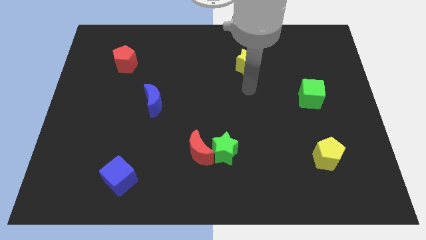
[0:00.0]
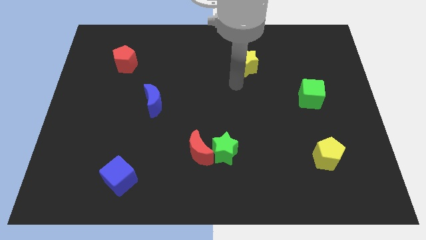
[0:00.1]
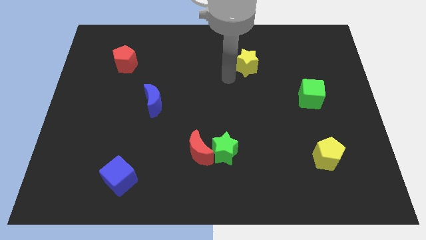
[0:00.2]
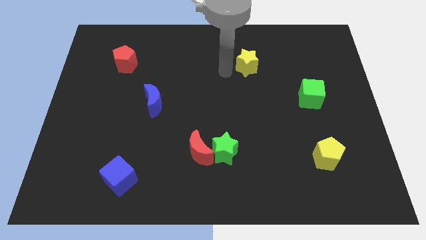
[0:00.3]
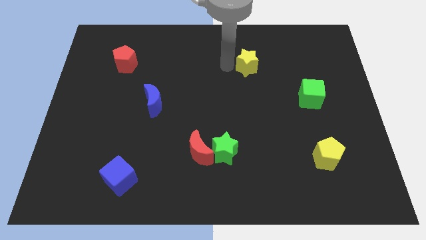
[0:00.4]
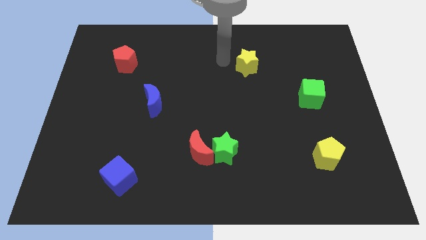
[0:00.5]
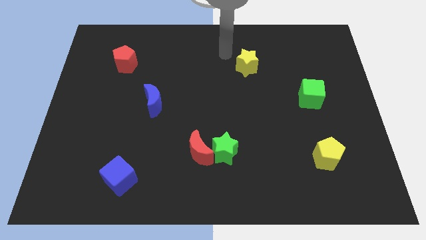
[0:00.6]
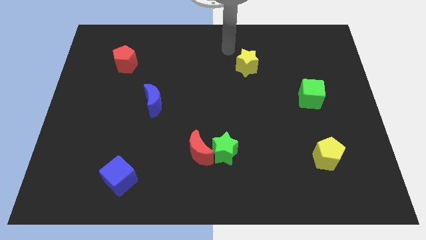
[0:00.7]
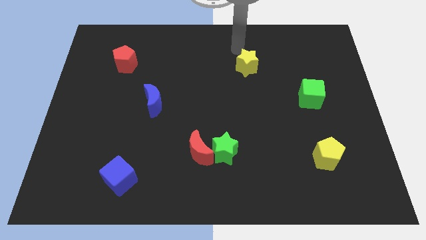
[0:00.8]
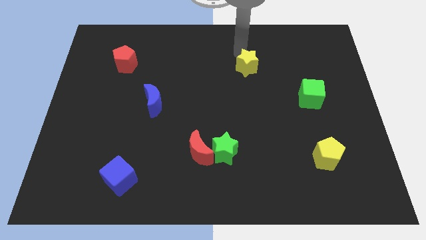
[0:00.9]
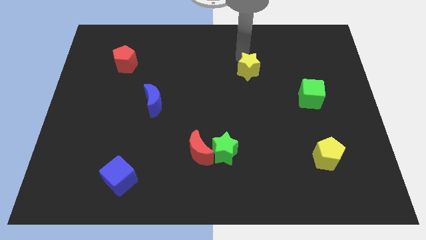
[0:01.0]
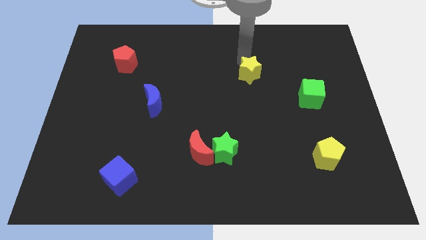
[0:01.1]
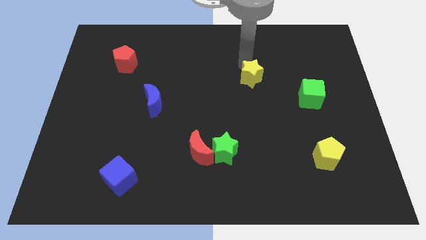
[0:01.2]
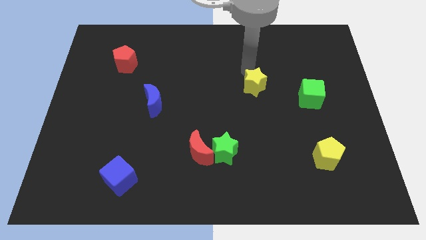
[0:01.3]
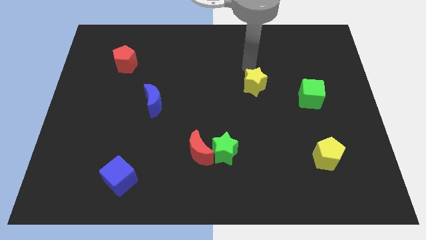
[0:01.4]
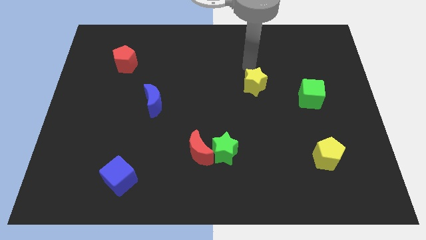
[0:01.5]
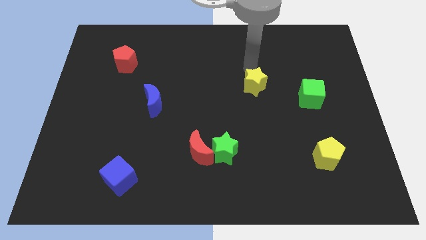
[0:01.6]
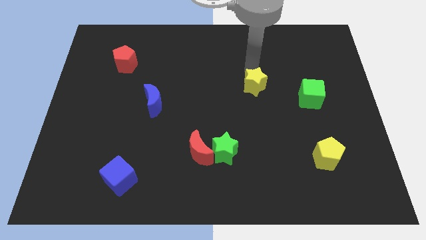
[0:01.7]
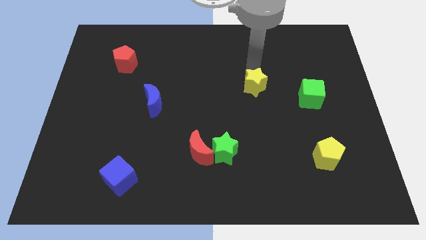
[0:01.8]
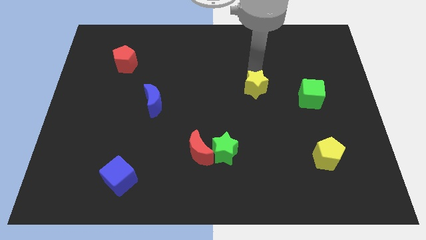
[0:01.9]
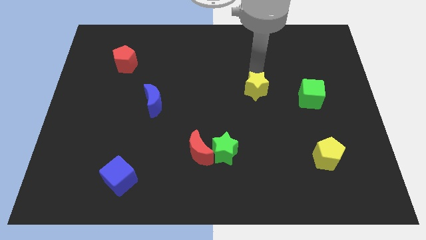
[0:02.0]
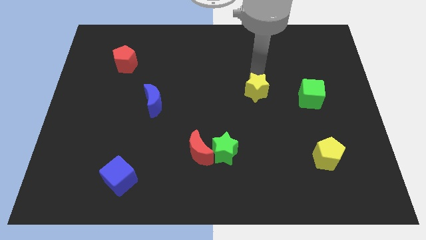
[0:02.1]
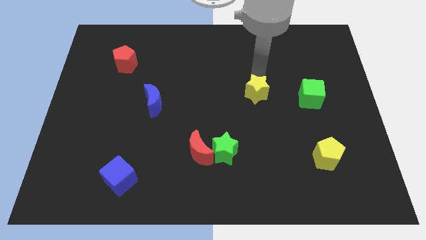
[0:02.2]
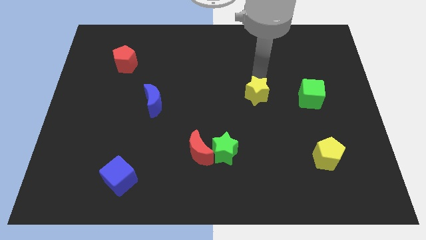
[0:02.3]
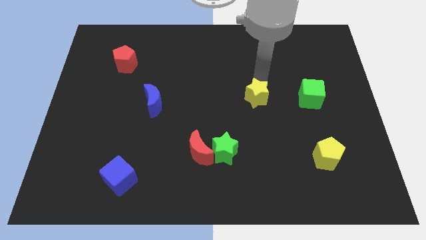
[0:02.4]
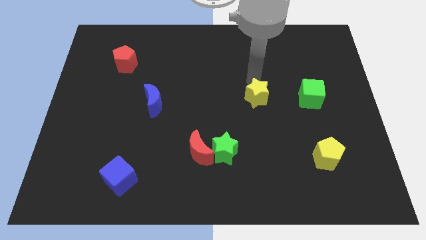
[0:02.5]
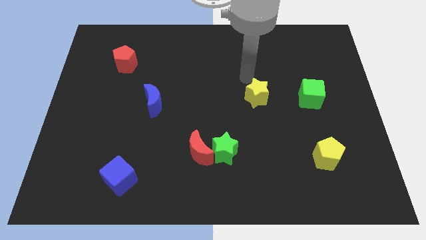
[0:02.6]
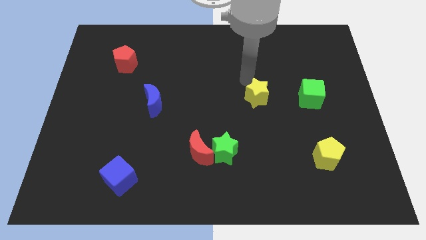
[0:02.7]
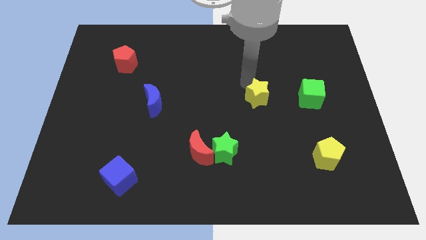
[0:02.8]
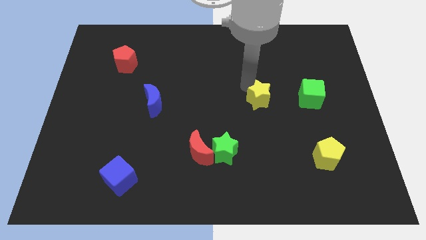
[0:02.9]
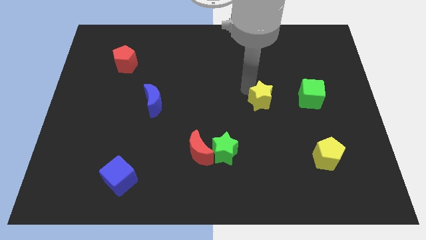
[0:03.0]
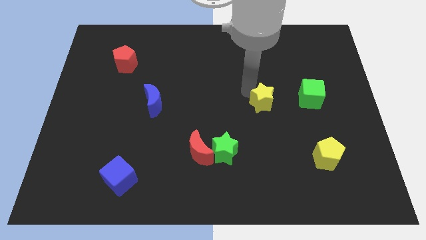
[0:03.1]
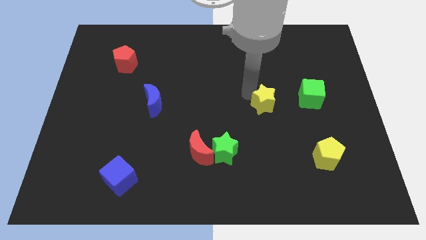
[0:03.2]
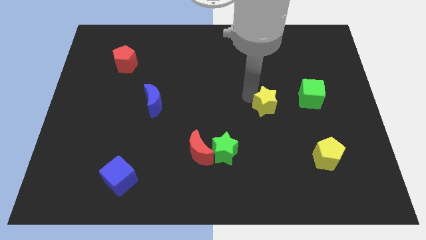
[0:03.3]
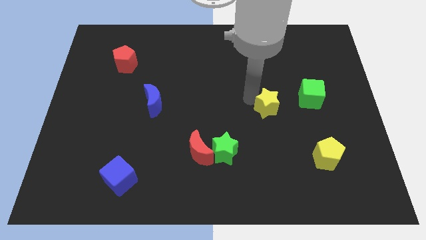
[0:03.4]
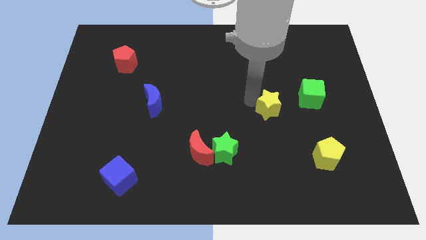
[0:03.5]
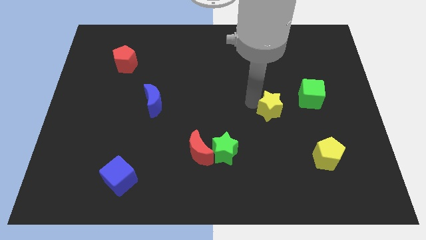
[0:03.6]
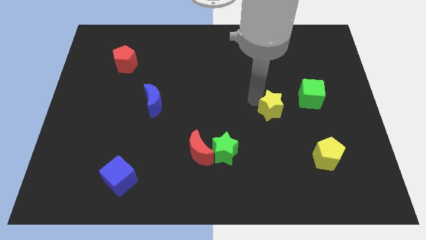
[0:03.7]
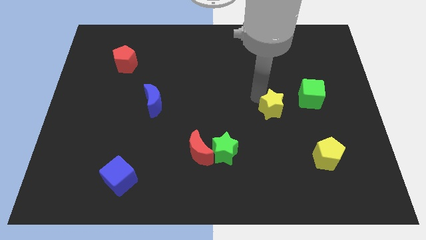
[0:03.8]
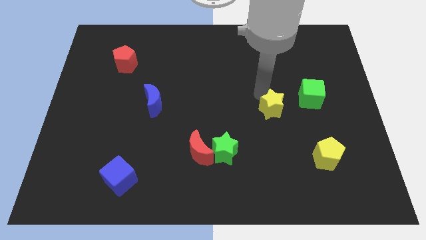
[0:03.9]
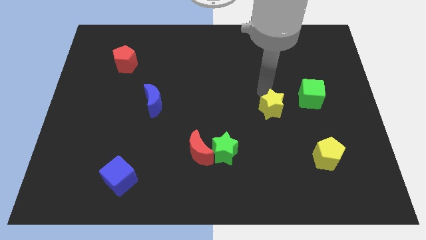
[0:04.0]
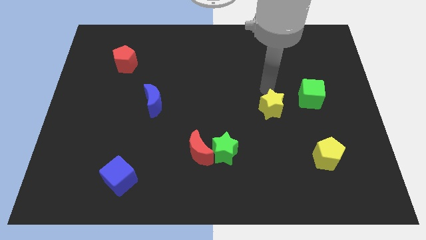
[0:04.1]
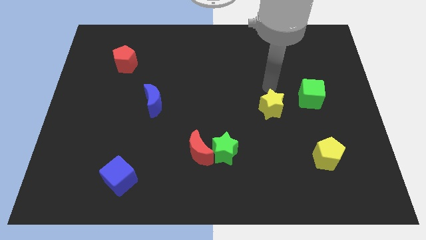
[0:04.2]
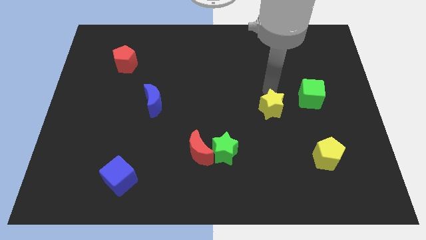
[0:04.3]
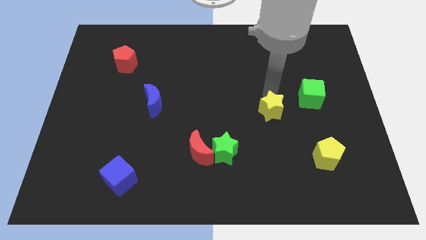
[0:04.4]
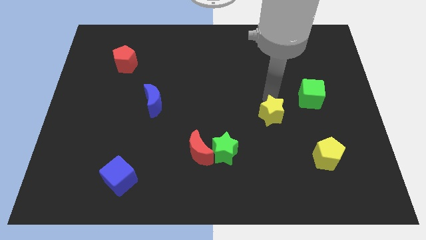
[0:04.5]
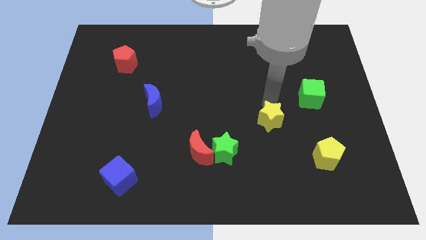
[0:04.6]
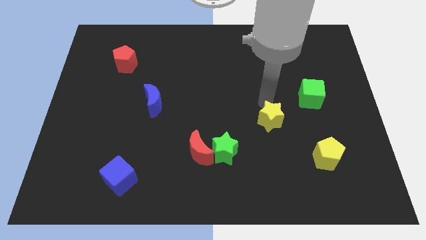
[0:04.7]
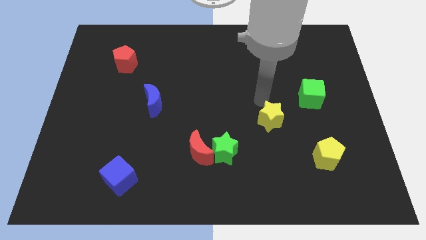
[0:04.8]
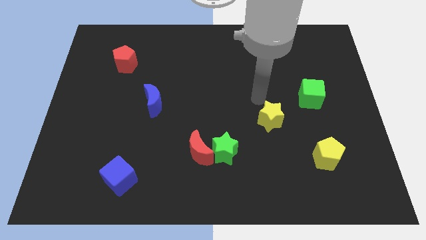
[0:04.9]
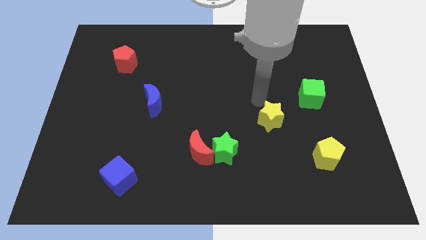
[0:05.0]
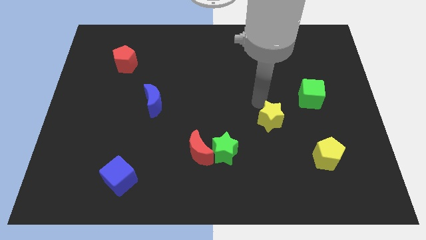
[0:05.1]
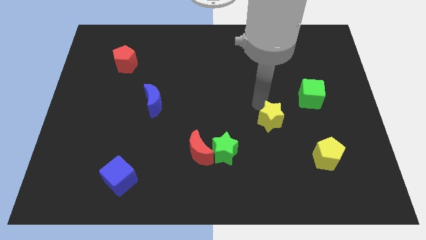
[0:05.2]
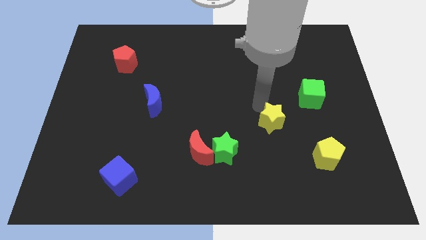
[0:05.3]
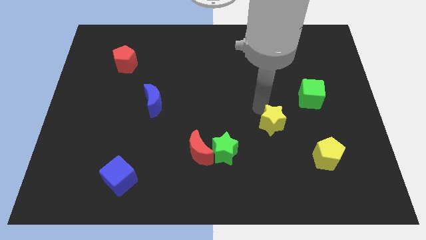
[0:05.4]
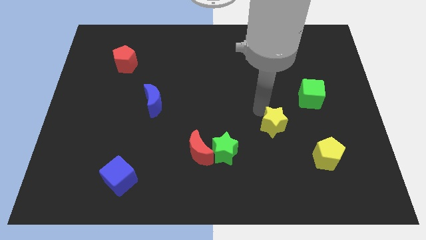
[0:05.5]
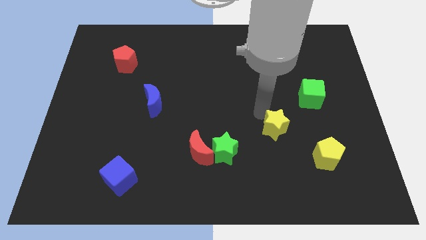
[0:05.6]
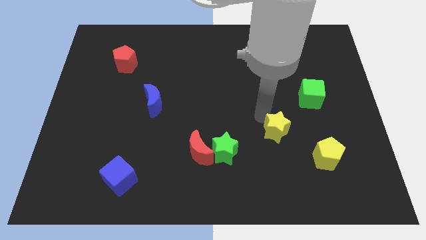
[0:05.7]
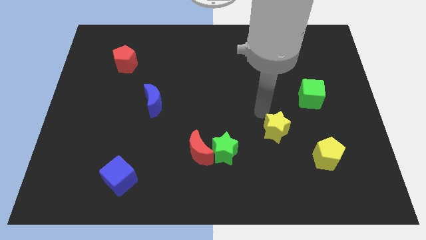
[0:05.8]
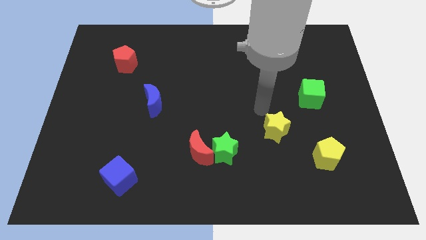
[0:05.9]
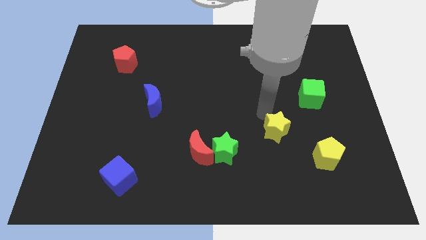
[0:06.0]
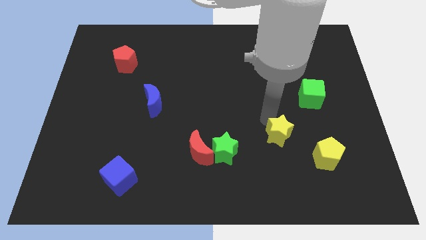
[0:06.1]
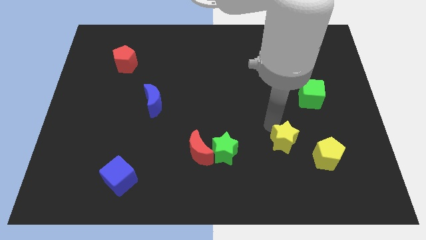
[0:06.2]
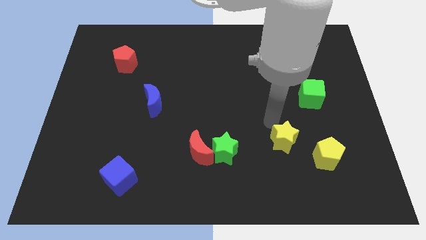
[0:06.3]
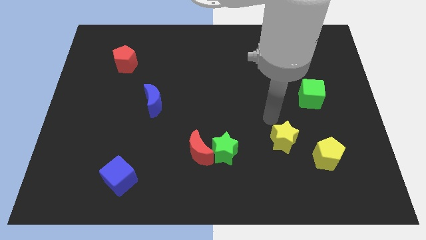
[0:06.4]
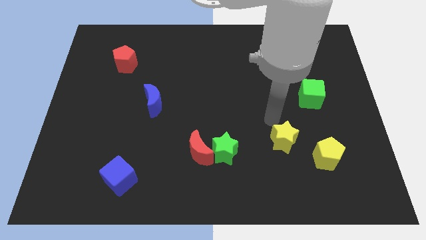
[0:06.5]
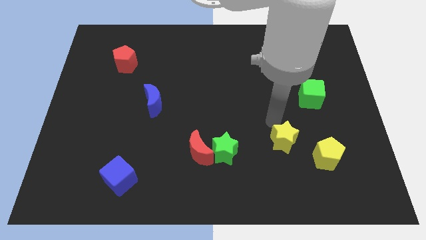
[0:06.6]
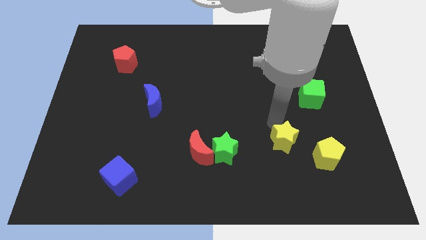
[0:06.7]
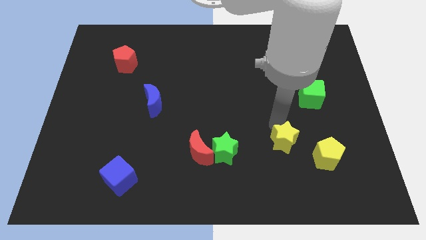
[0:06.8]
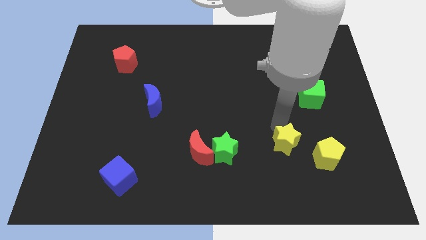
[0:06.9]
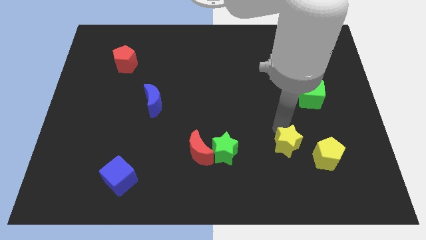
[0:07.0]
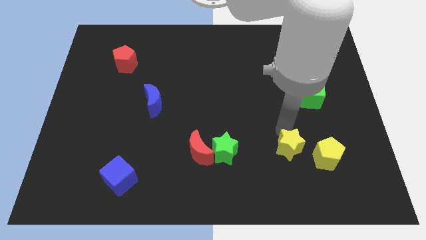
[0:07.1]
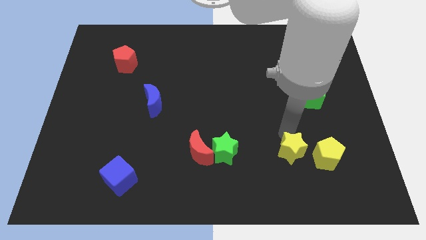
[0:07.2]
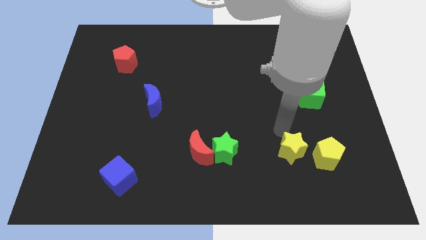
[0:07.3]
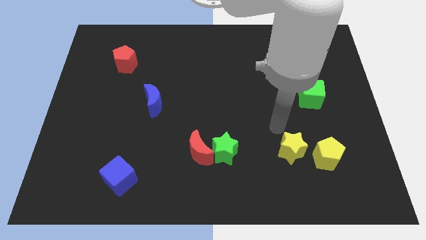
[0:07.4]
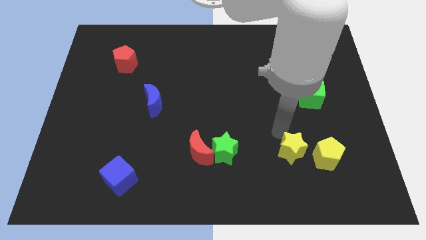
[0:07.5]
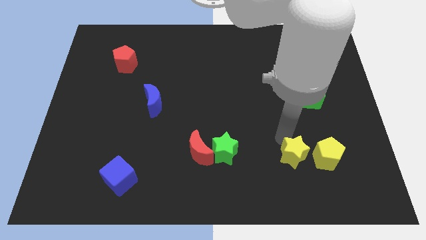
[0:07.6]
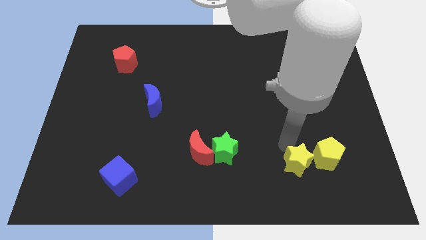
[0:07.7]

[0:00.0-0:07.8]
push the yellow star to the bottom left of the yellow pentagon
